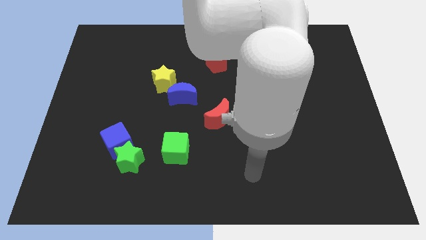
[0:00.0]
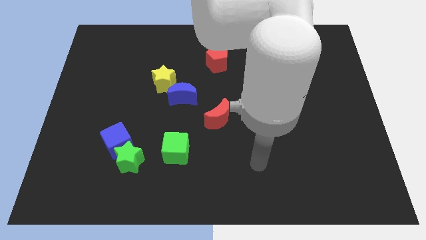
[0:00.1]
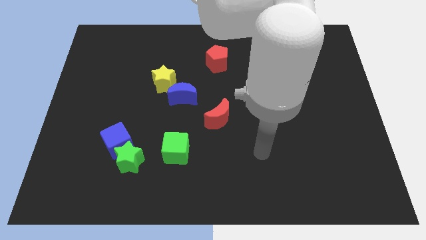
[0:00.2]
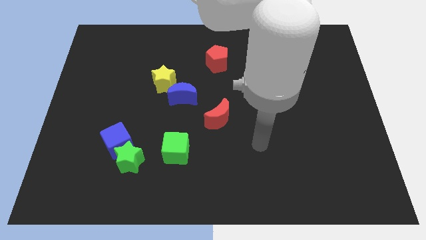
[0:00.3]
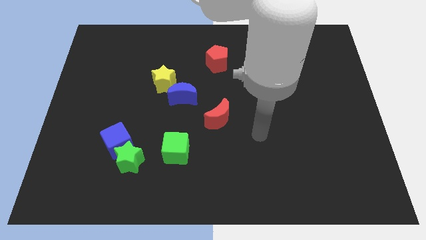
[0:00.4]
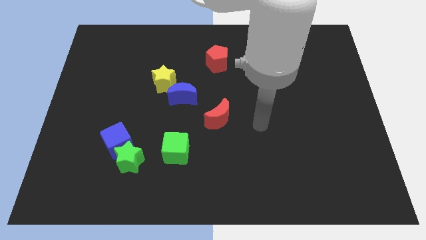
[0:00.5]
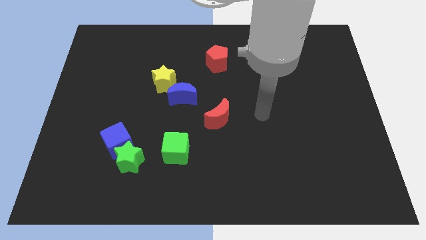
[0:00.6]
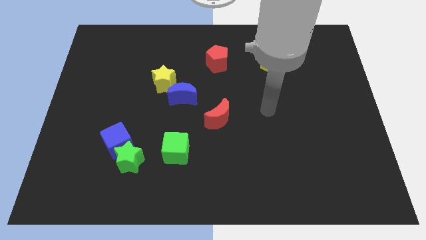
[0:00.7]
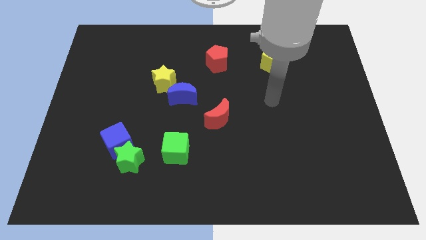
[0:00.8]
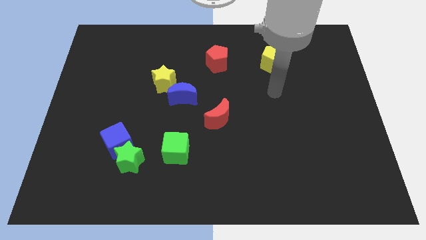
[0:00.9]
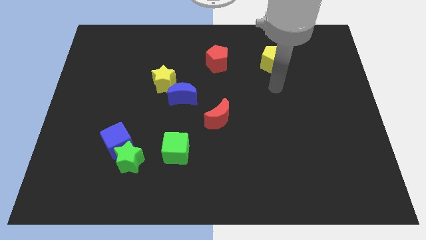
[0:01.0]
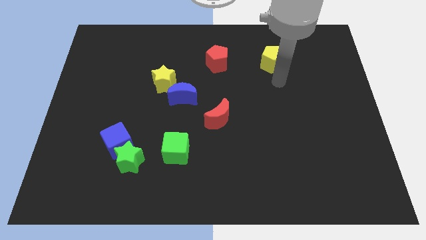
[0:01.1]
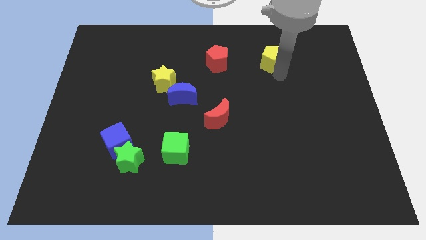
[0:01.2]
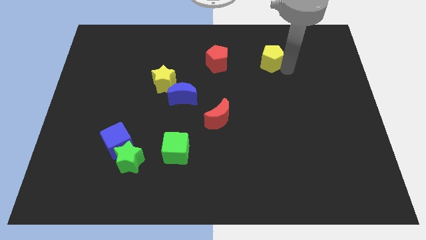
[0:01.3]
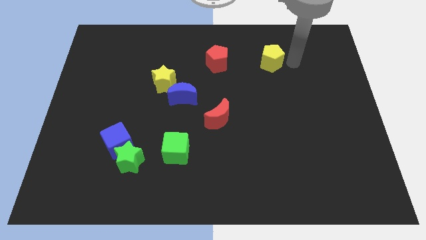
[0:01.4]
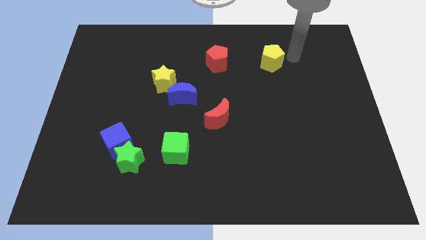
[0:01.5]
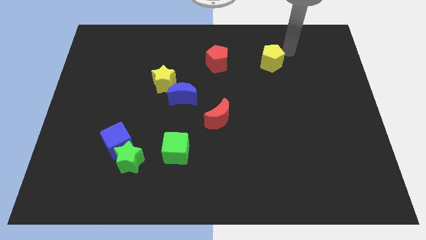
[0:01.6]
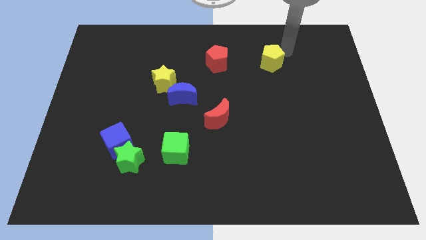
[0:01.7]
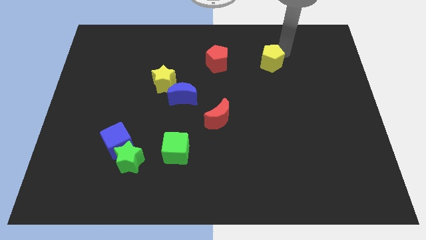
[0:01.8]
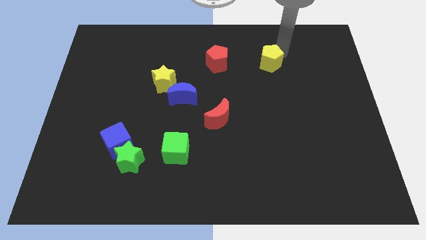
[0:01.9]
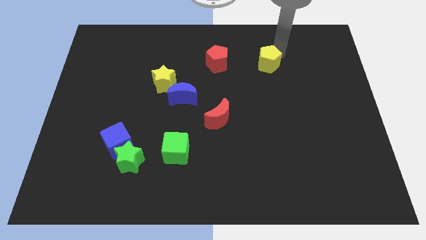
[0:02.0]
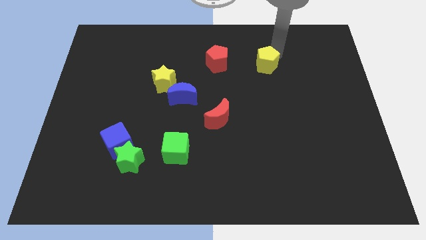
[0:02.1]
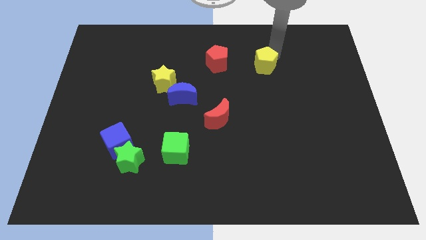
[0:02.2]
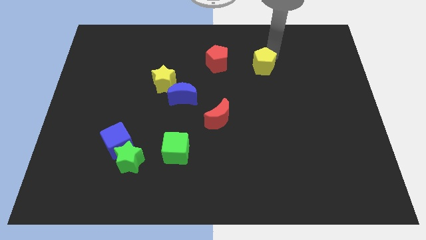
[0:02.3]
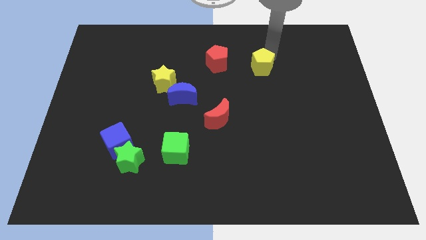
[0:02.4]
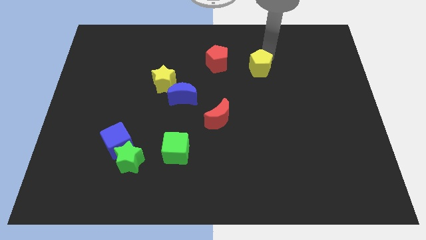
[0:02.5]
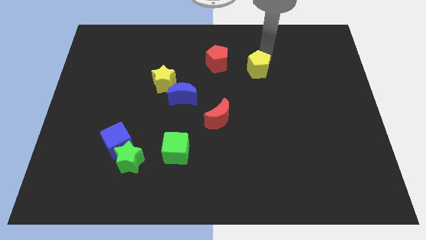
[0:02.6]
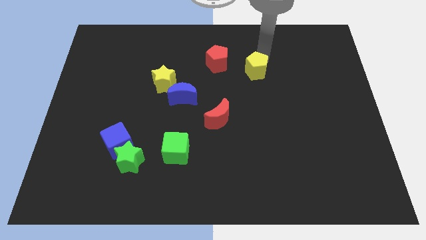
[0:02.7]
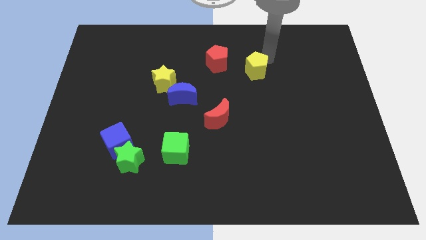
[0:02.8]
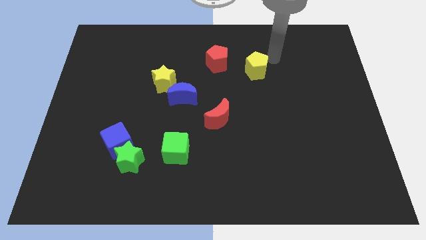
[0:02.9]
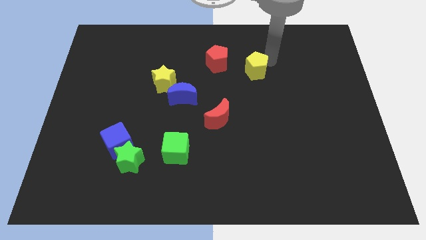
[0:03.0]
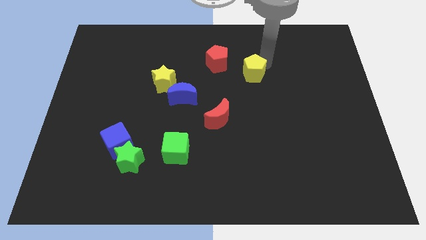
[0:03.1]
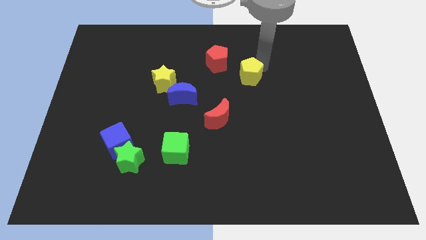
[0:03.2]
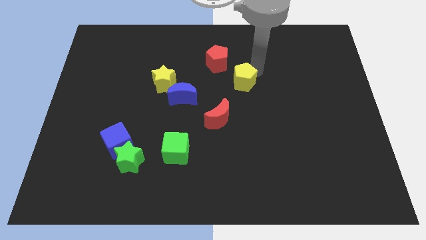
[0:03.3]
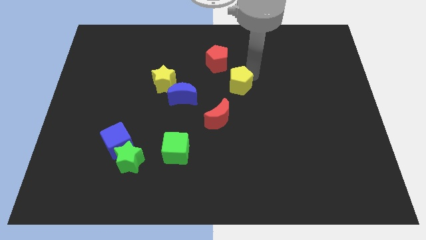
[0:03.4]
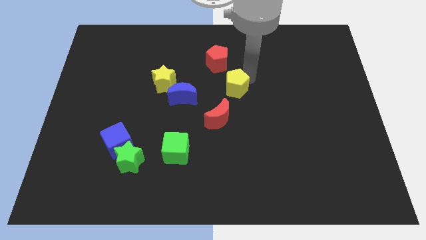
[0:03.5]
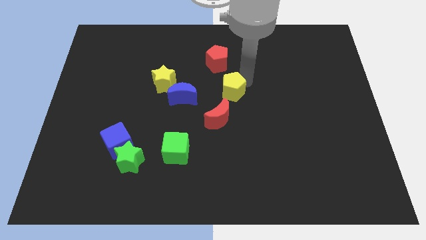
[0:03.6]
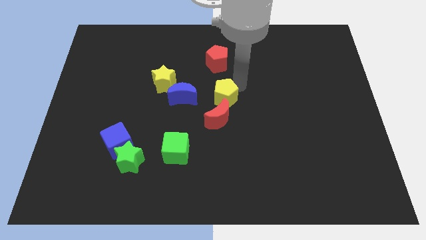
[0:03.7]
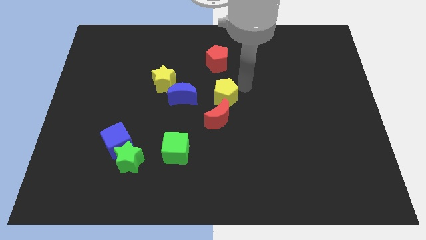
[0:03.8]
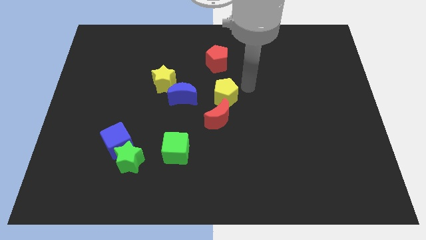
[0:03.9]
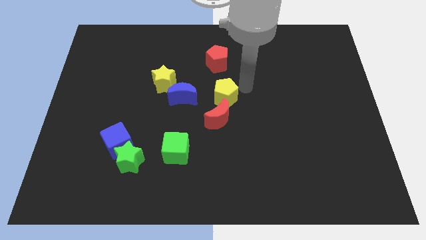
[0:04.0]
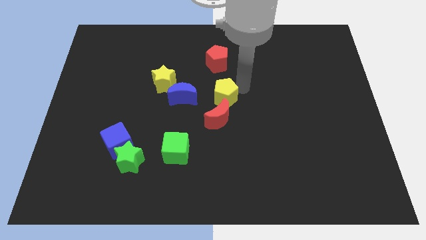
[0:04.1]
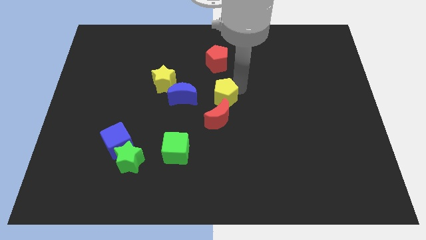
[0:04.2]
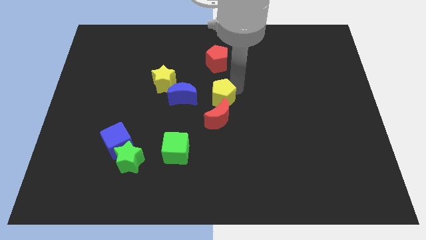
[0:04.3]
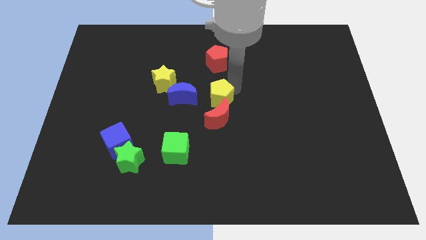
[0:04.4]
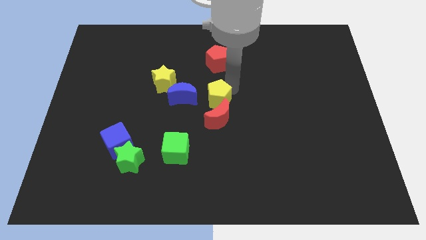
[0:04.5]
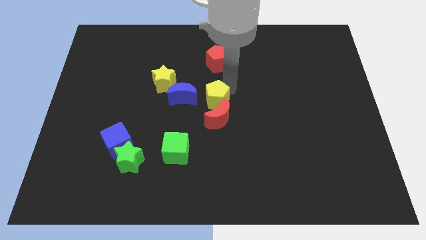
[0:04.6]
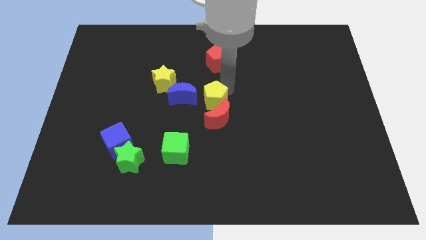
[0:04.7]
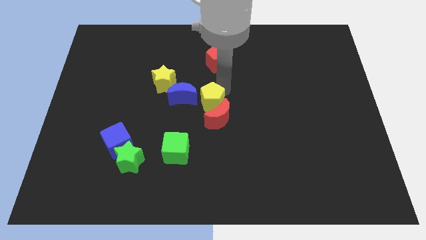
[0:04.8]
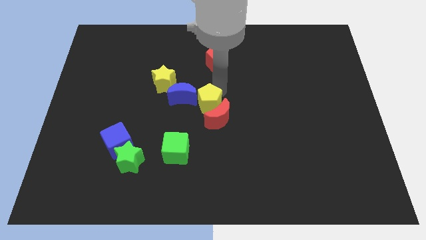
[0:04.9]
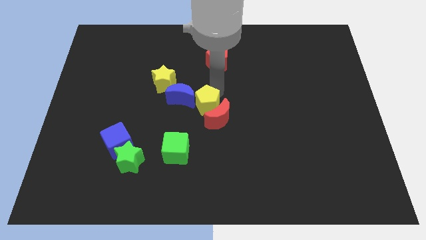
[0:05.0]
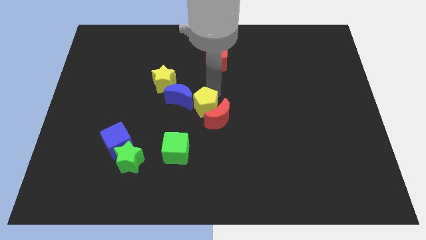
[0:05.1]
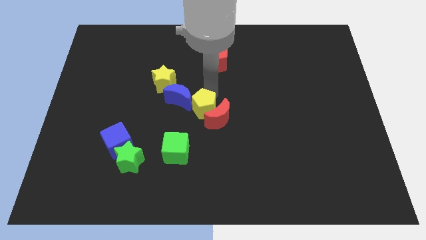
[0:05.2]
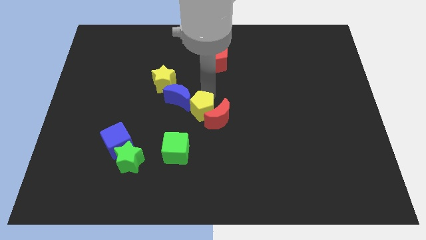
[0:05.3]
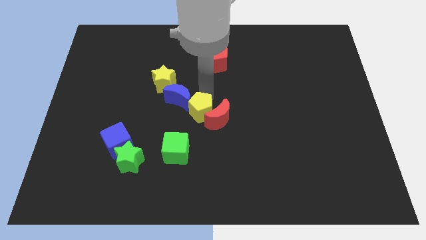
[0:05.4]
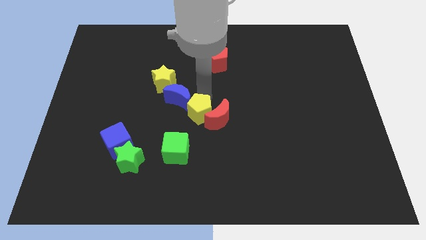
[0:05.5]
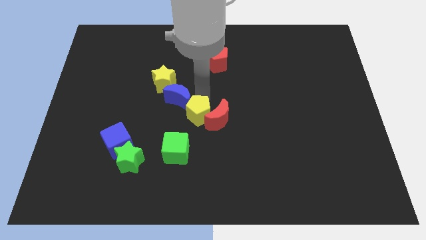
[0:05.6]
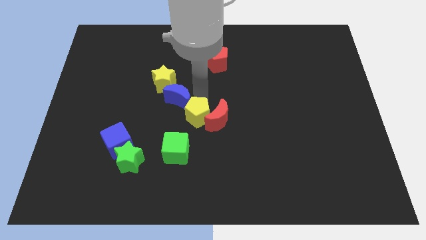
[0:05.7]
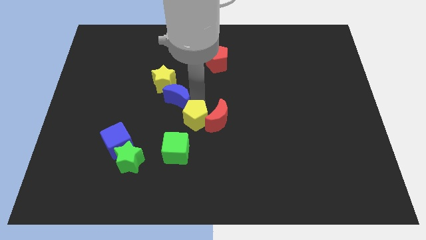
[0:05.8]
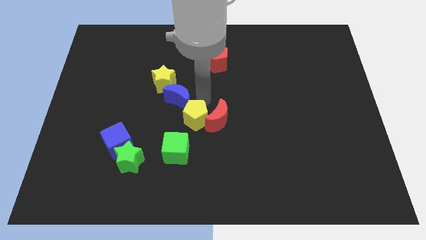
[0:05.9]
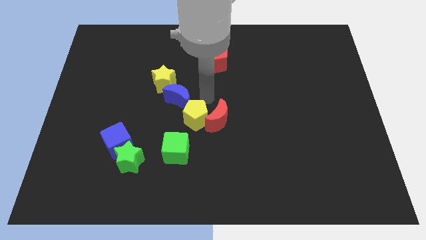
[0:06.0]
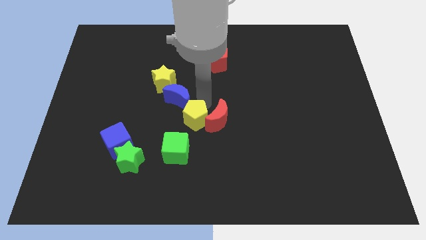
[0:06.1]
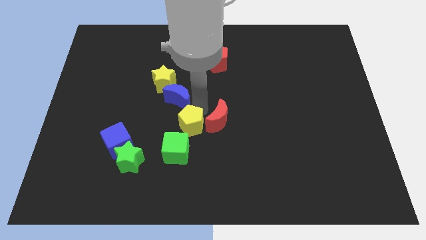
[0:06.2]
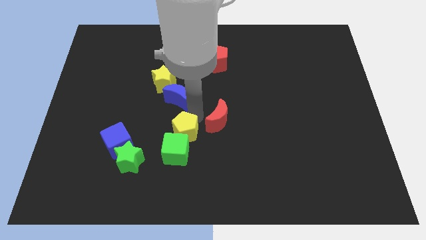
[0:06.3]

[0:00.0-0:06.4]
slide the yellow pentagon to the green cube
